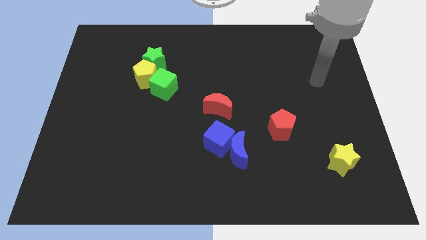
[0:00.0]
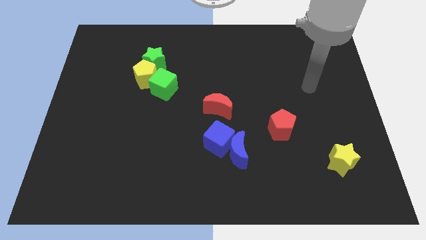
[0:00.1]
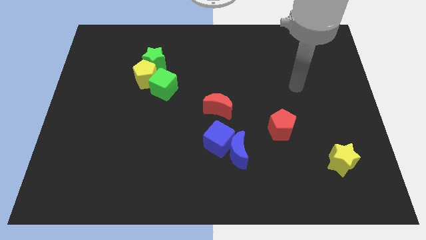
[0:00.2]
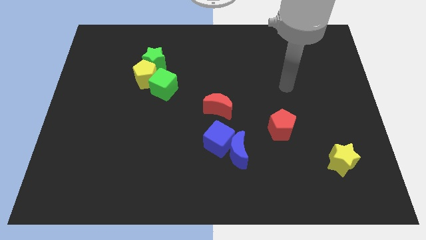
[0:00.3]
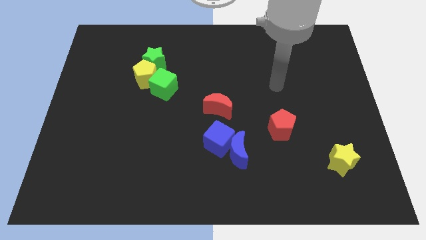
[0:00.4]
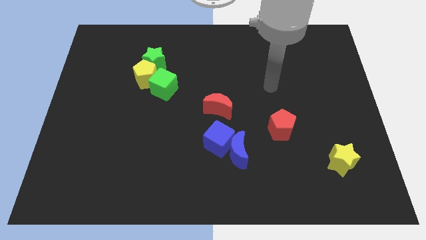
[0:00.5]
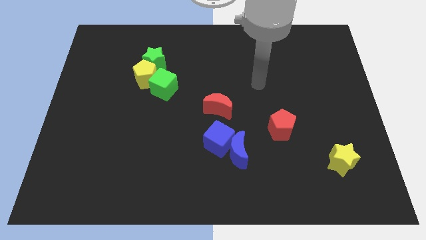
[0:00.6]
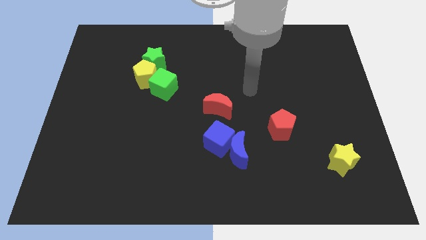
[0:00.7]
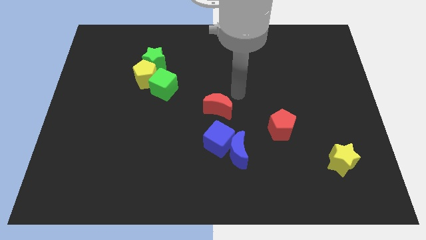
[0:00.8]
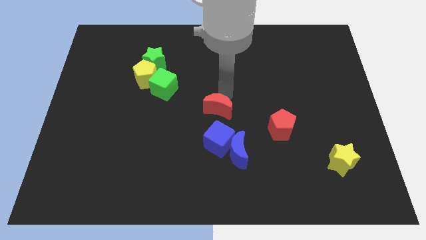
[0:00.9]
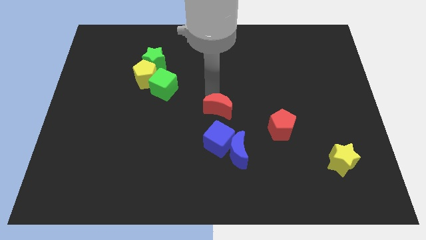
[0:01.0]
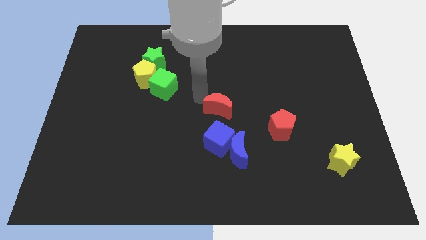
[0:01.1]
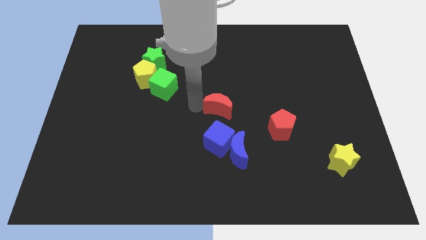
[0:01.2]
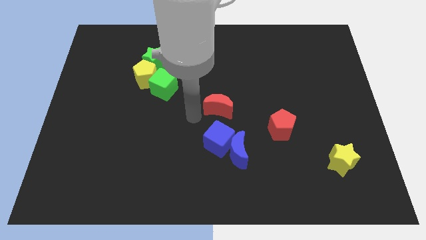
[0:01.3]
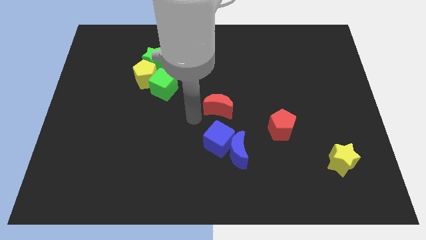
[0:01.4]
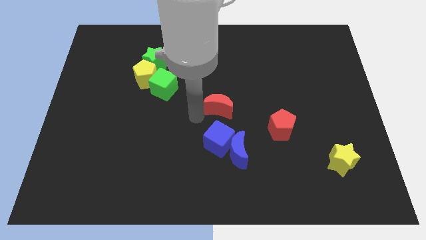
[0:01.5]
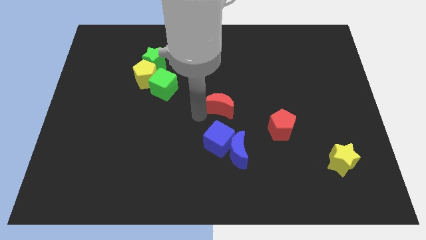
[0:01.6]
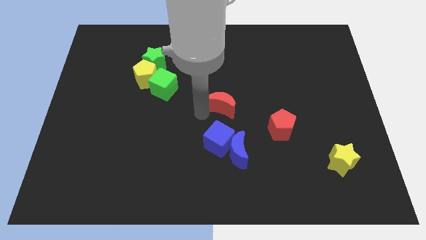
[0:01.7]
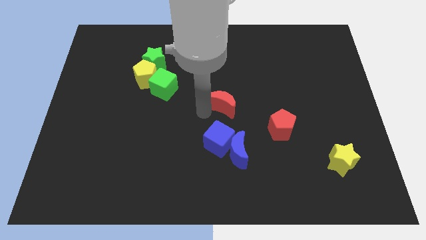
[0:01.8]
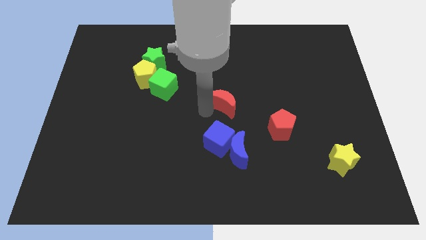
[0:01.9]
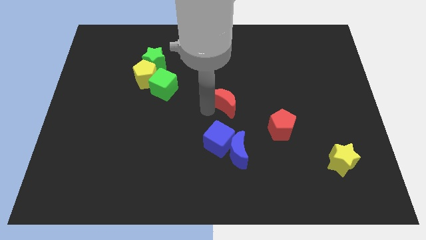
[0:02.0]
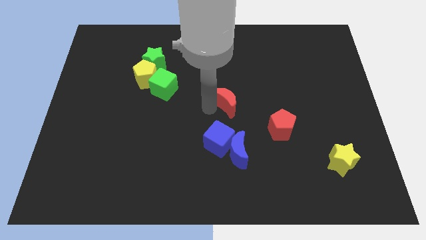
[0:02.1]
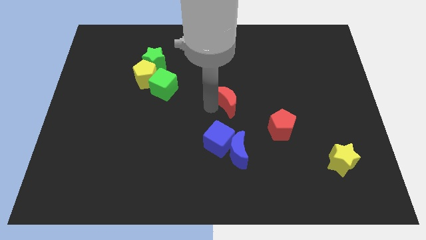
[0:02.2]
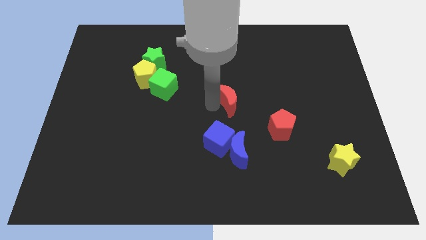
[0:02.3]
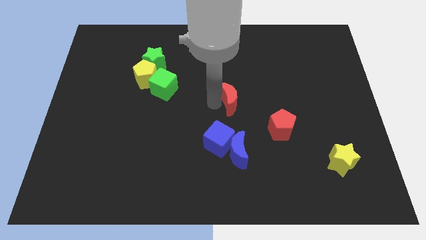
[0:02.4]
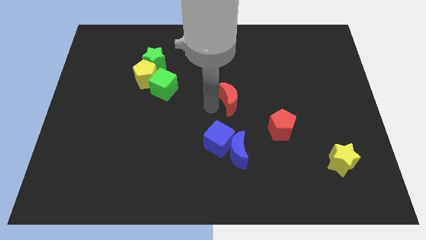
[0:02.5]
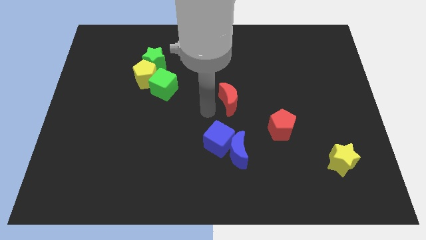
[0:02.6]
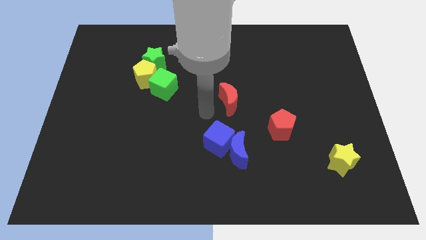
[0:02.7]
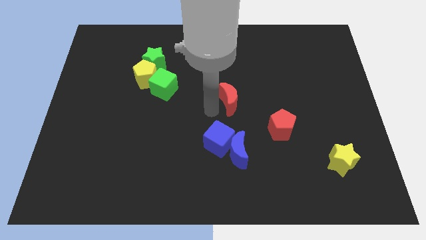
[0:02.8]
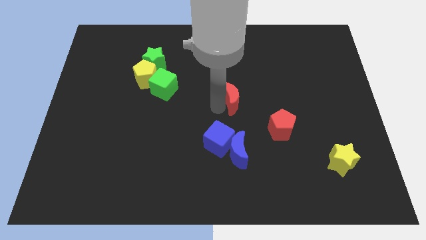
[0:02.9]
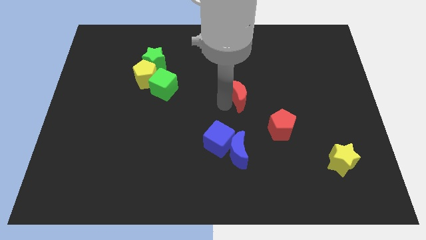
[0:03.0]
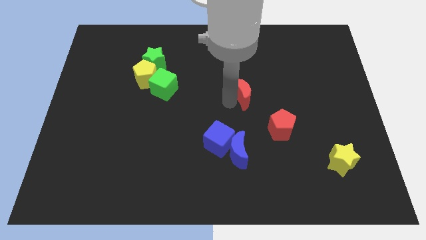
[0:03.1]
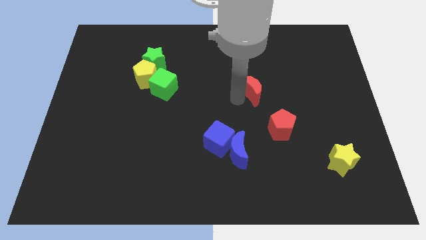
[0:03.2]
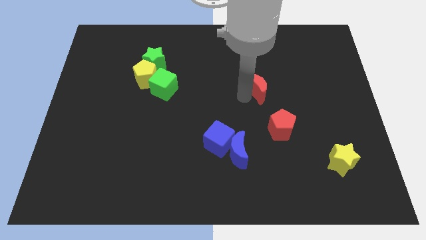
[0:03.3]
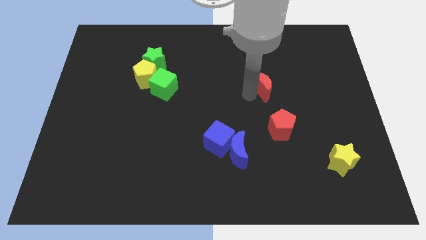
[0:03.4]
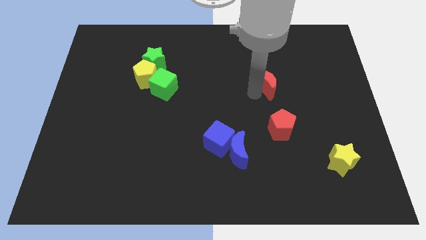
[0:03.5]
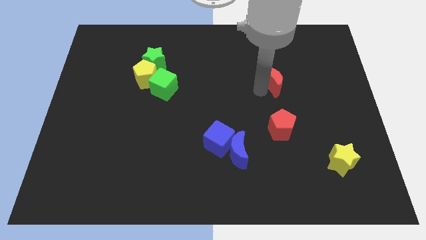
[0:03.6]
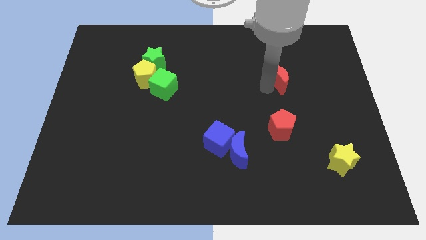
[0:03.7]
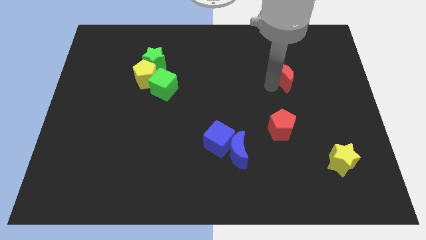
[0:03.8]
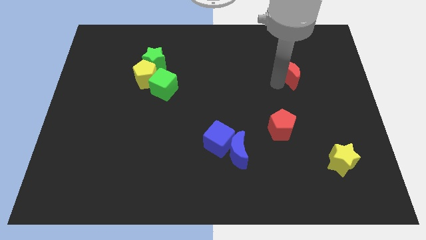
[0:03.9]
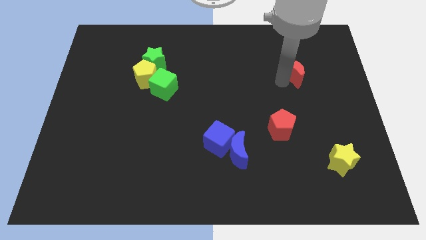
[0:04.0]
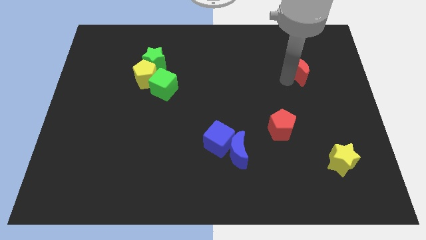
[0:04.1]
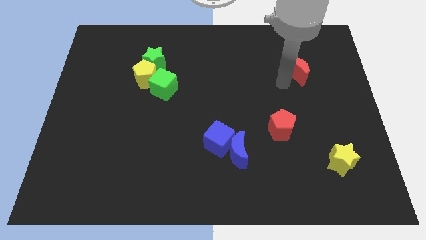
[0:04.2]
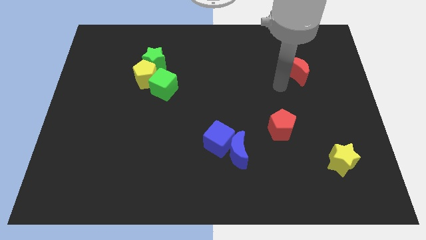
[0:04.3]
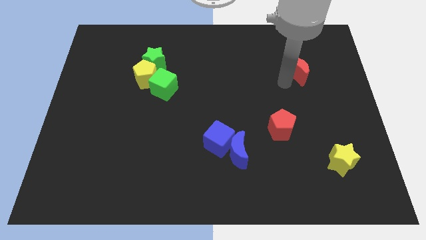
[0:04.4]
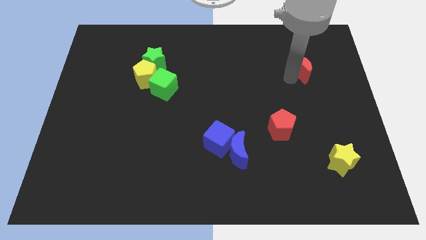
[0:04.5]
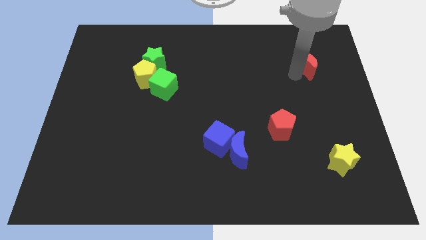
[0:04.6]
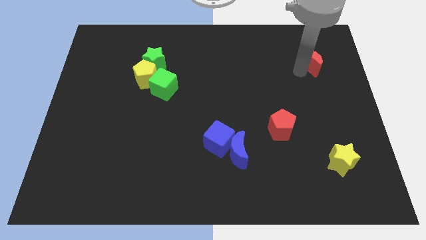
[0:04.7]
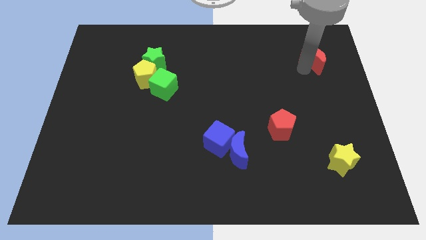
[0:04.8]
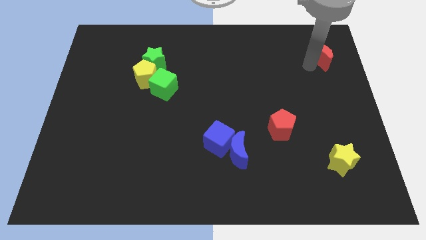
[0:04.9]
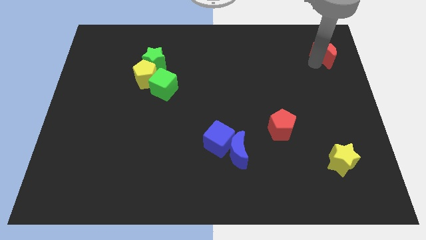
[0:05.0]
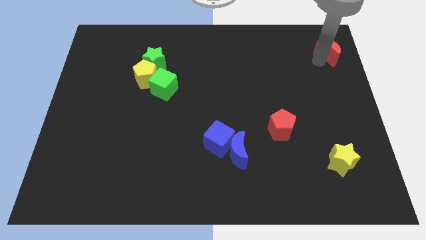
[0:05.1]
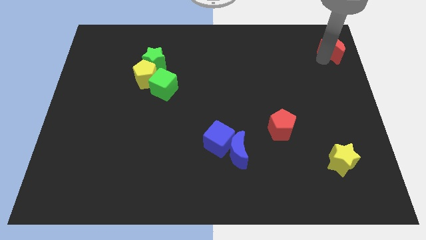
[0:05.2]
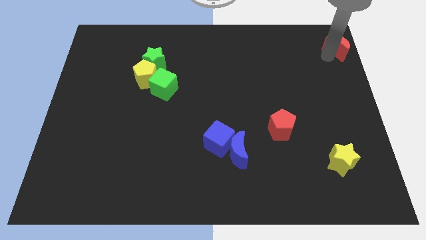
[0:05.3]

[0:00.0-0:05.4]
push the red moon to the top right of the board

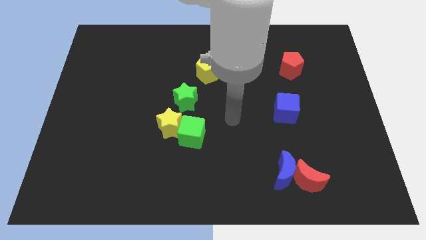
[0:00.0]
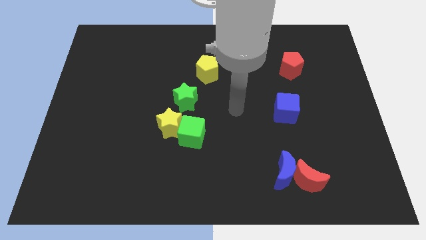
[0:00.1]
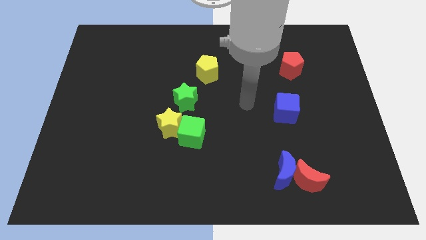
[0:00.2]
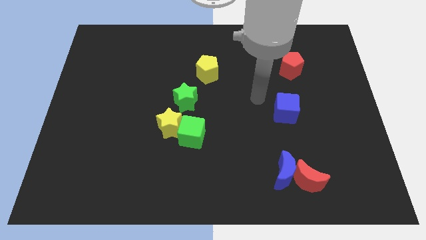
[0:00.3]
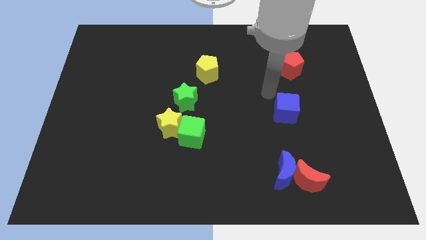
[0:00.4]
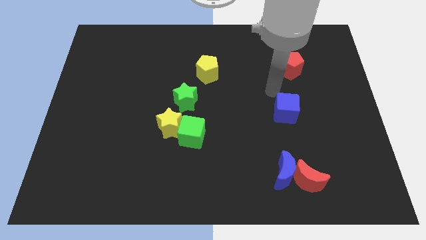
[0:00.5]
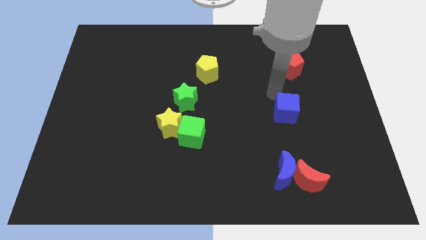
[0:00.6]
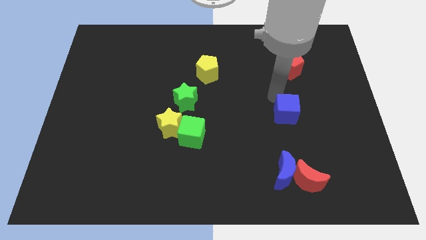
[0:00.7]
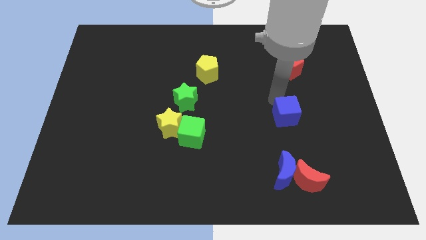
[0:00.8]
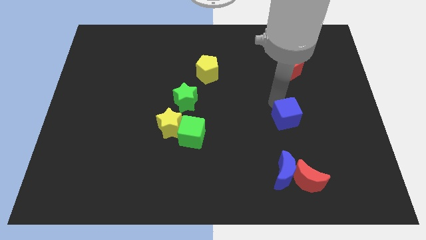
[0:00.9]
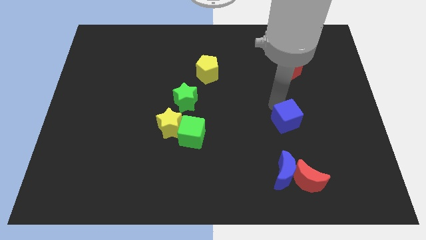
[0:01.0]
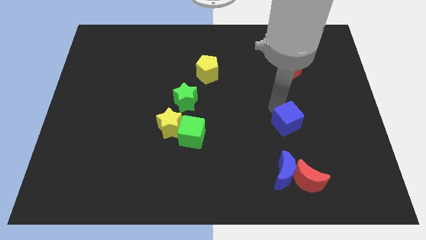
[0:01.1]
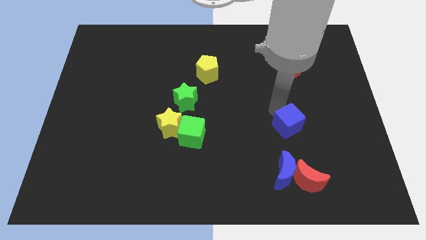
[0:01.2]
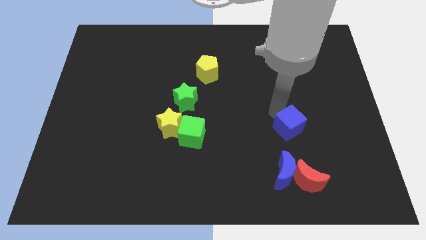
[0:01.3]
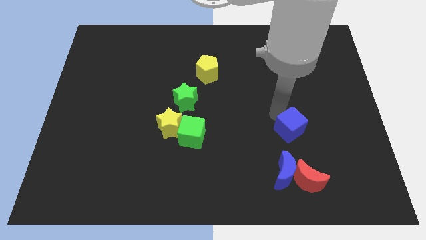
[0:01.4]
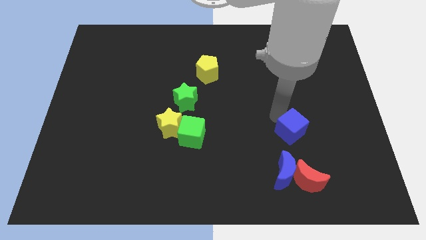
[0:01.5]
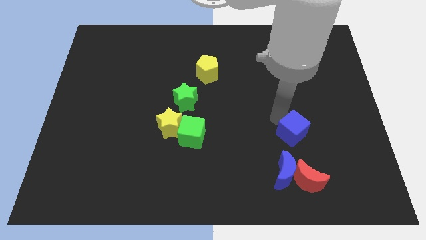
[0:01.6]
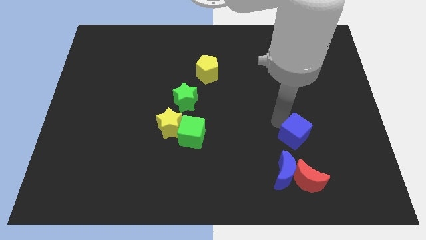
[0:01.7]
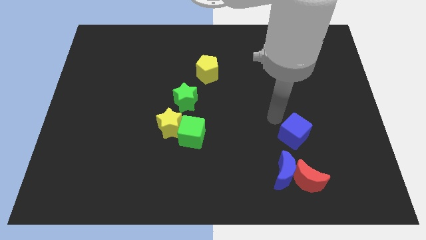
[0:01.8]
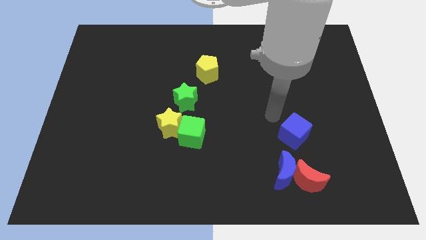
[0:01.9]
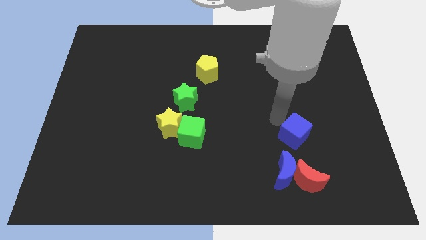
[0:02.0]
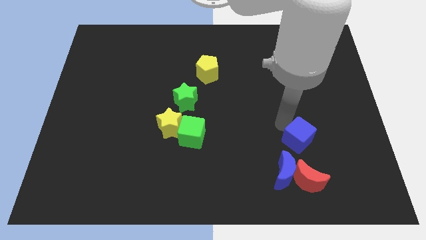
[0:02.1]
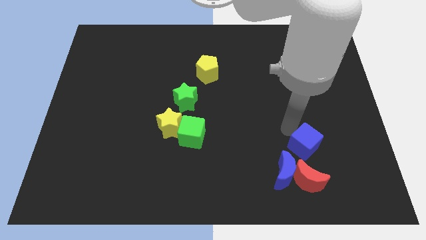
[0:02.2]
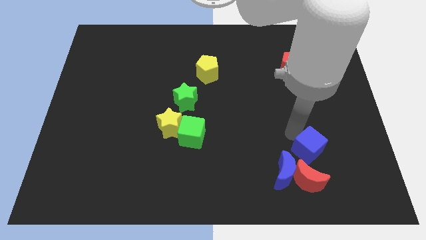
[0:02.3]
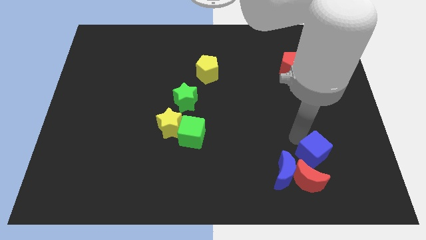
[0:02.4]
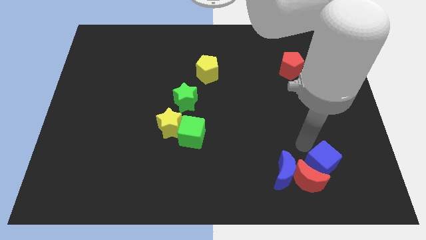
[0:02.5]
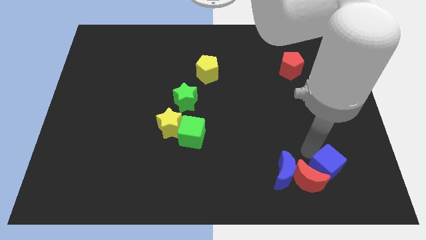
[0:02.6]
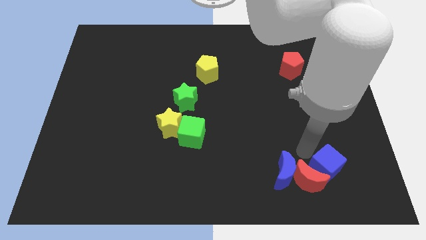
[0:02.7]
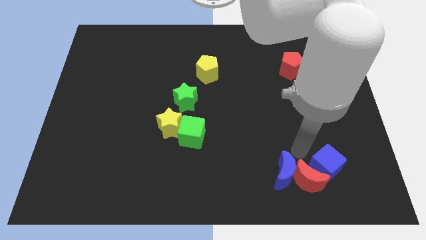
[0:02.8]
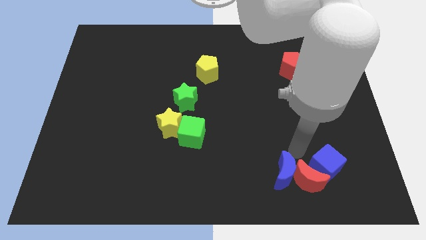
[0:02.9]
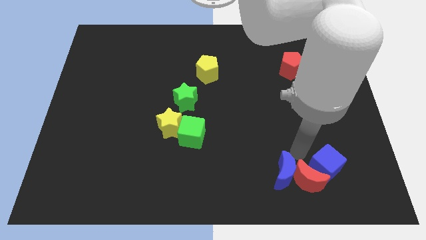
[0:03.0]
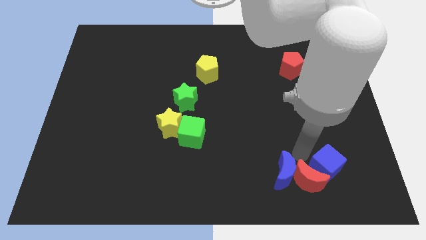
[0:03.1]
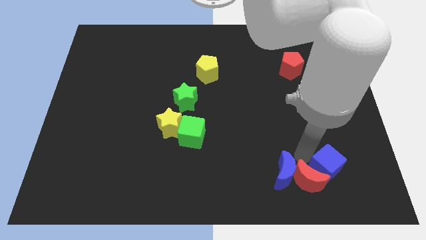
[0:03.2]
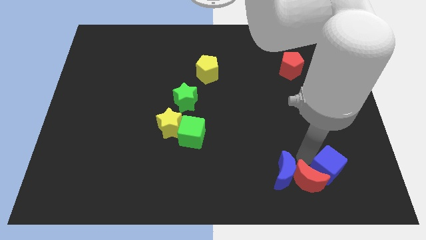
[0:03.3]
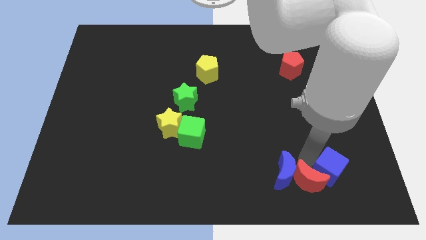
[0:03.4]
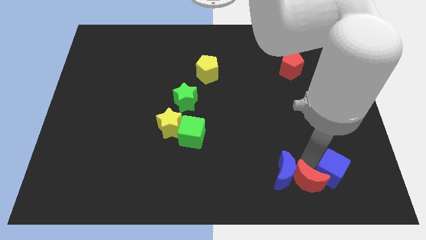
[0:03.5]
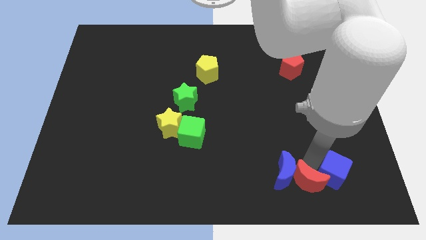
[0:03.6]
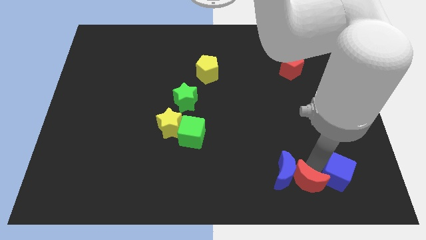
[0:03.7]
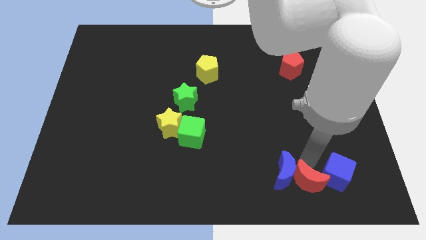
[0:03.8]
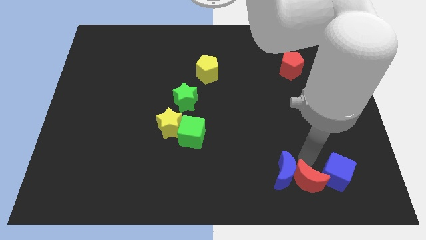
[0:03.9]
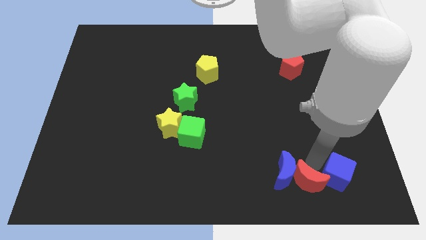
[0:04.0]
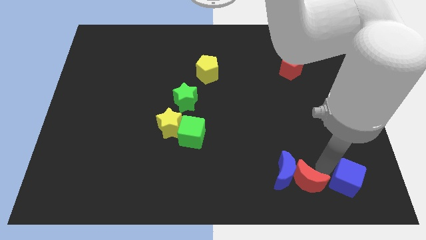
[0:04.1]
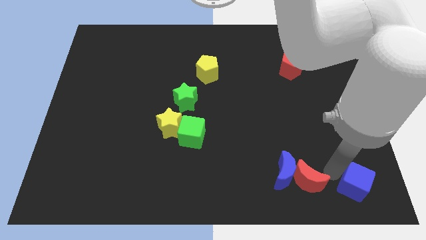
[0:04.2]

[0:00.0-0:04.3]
slide the blue cube to the bottom right corner
